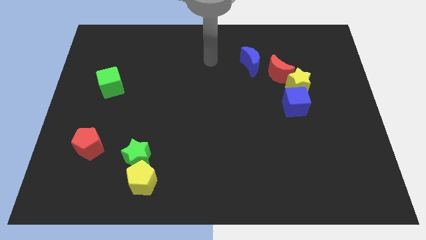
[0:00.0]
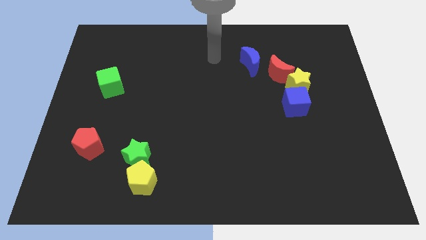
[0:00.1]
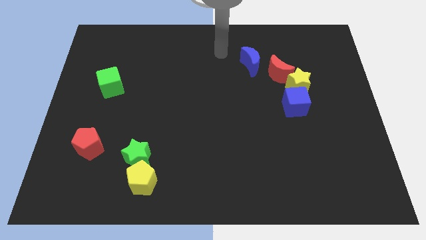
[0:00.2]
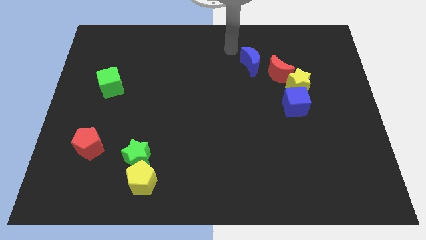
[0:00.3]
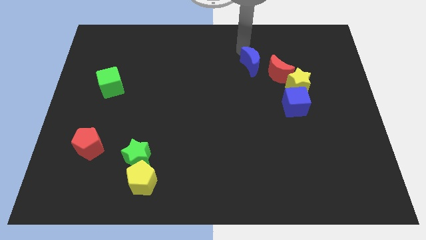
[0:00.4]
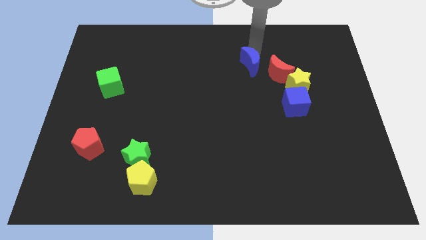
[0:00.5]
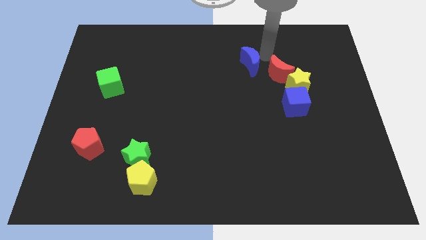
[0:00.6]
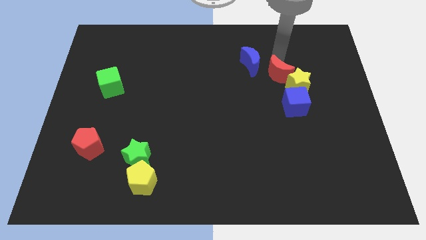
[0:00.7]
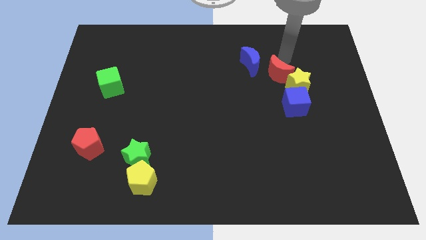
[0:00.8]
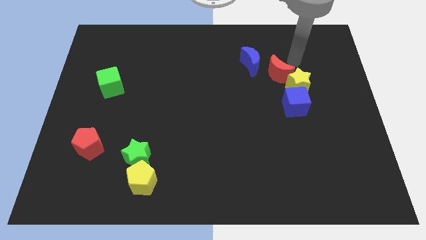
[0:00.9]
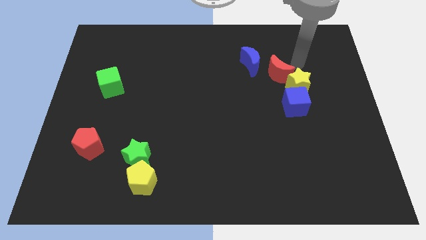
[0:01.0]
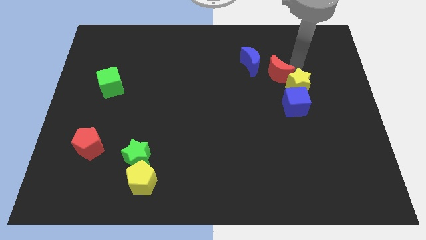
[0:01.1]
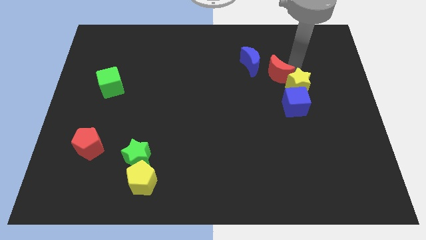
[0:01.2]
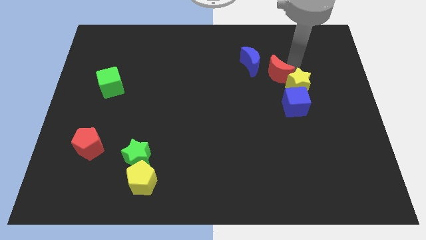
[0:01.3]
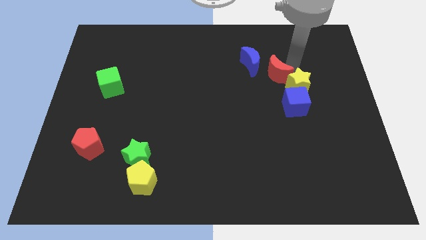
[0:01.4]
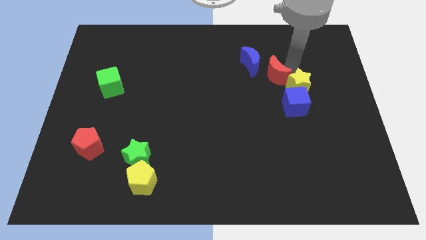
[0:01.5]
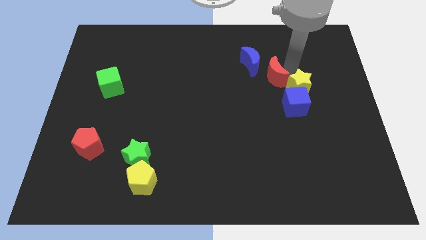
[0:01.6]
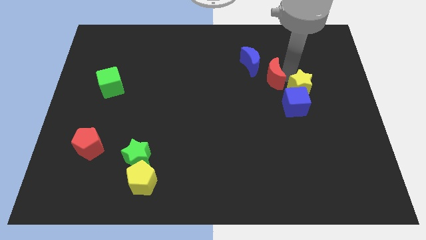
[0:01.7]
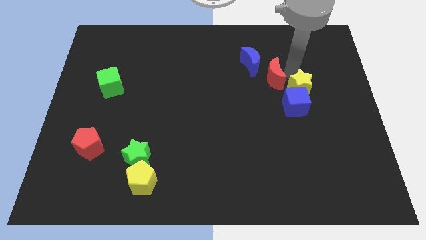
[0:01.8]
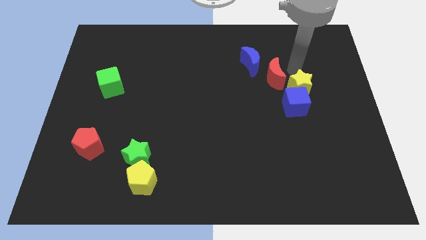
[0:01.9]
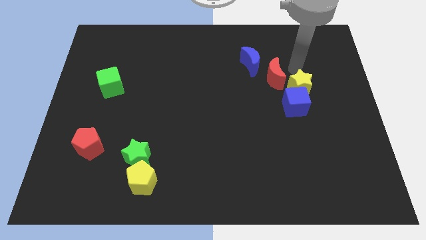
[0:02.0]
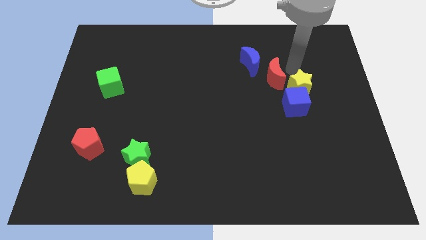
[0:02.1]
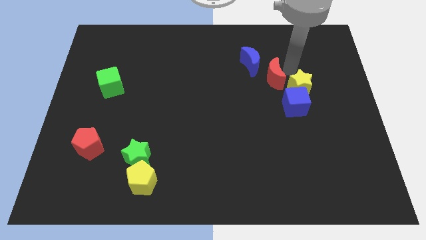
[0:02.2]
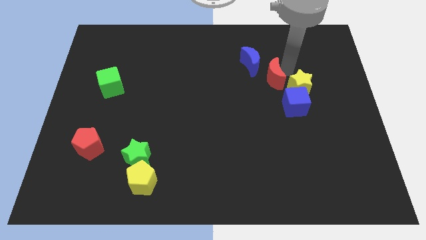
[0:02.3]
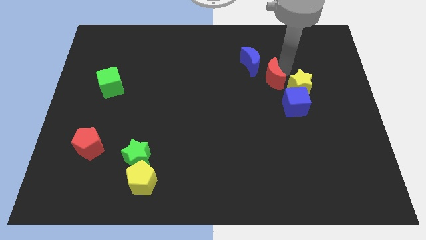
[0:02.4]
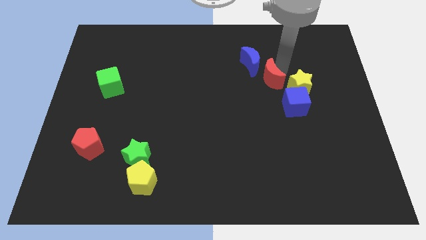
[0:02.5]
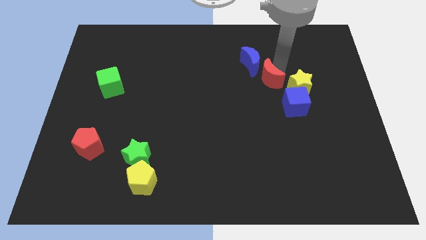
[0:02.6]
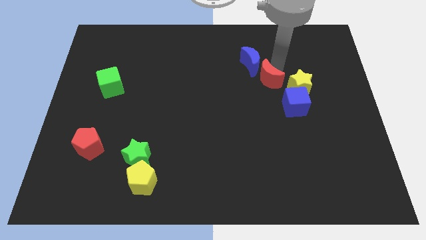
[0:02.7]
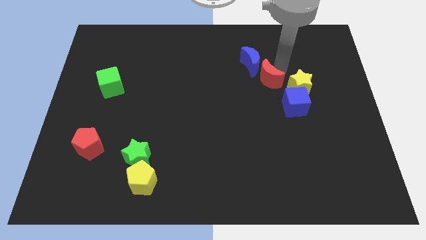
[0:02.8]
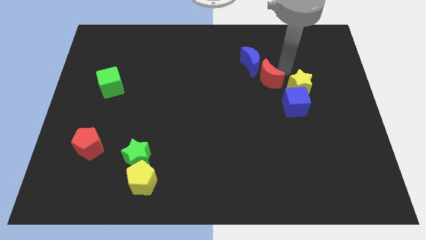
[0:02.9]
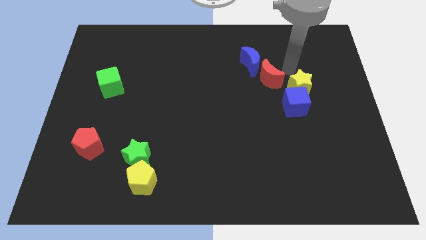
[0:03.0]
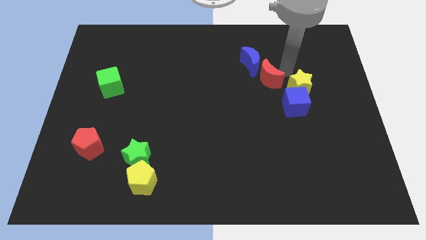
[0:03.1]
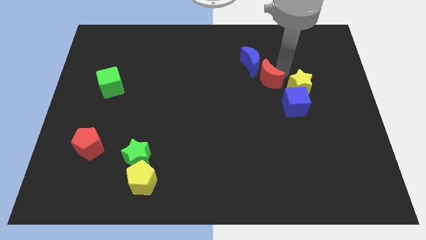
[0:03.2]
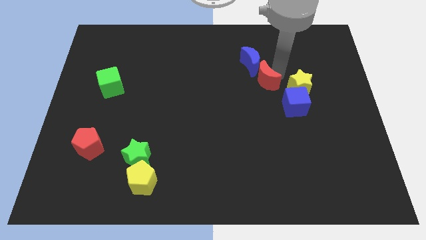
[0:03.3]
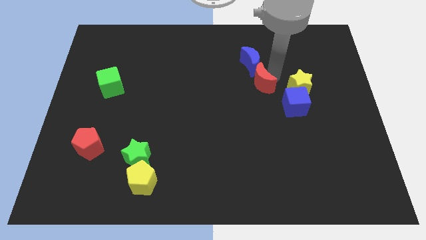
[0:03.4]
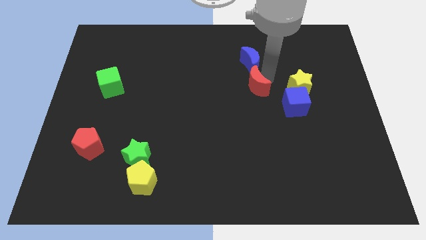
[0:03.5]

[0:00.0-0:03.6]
move the red moon slightly down and then to the left

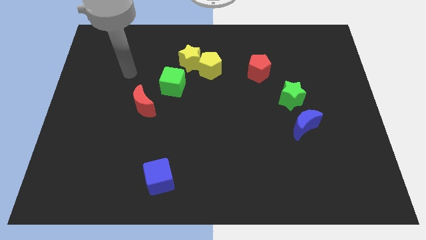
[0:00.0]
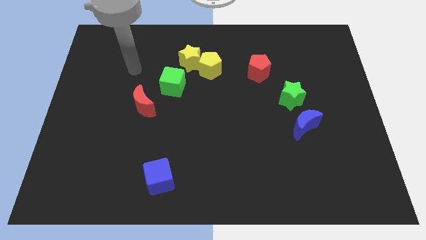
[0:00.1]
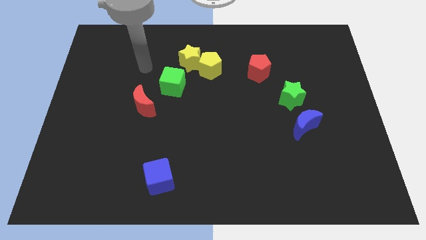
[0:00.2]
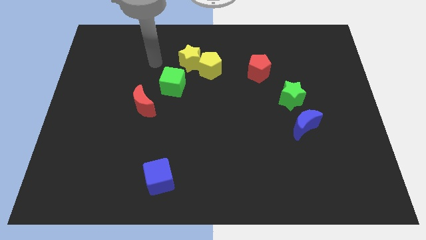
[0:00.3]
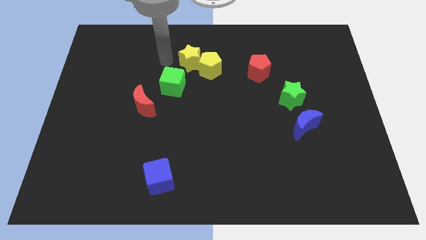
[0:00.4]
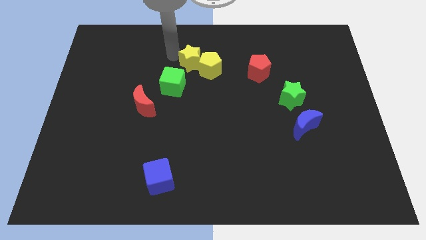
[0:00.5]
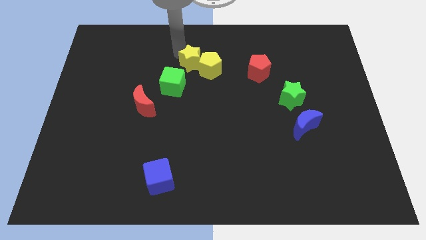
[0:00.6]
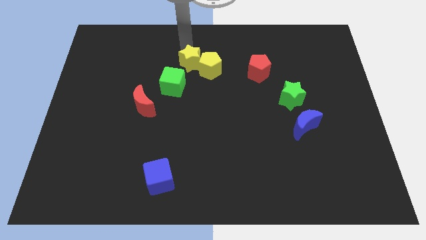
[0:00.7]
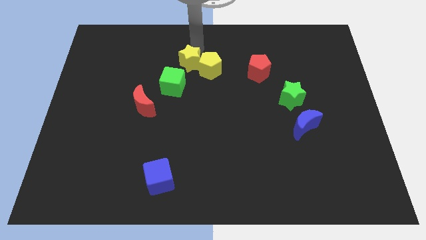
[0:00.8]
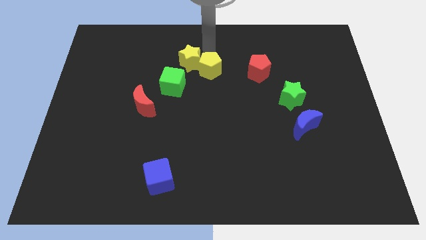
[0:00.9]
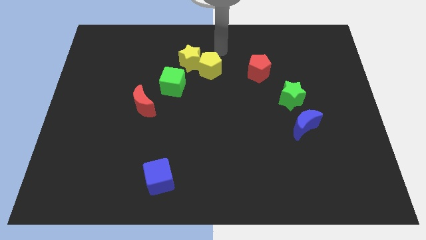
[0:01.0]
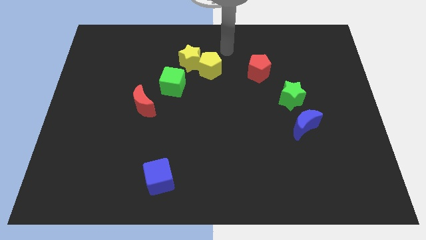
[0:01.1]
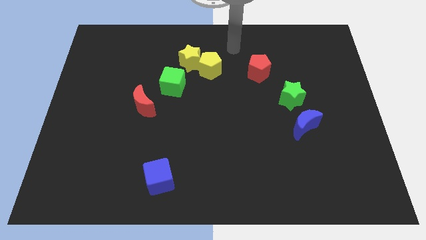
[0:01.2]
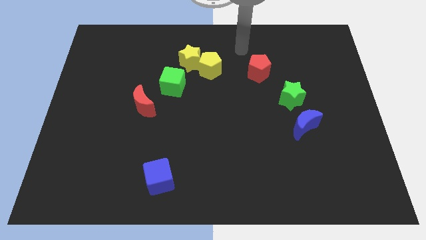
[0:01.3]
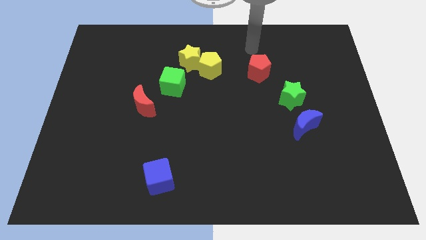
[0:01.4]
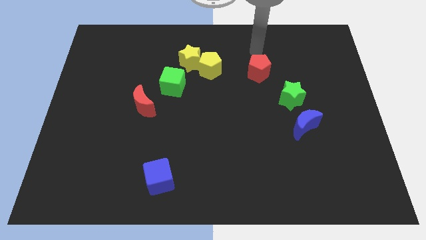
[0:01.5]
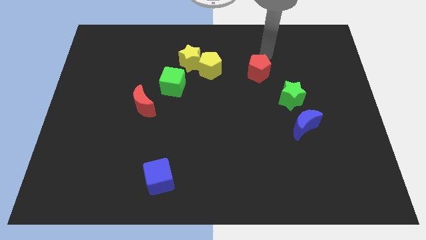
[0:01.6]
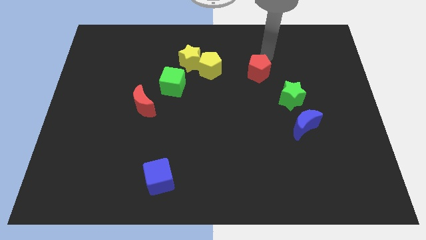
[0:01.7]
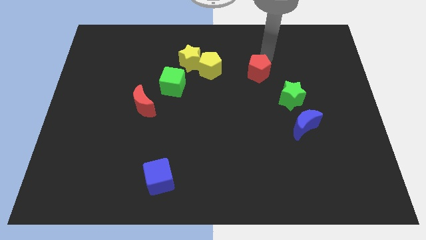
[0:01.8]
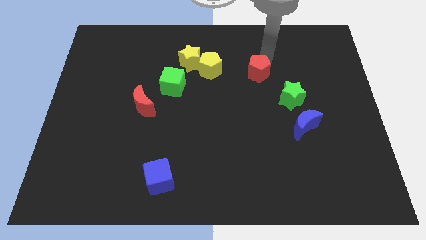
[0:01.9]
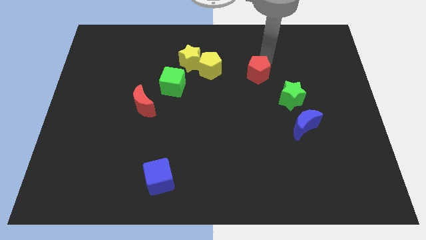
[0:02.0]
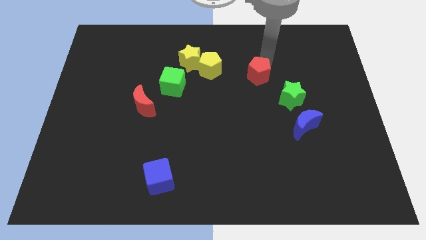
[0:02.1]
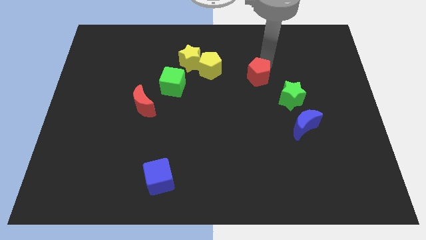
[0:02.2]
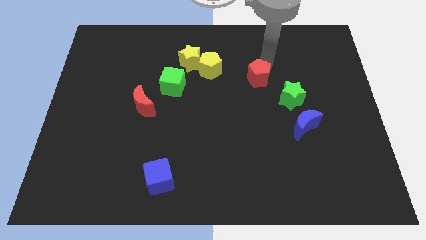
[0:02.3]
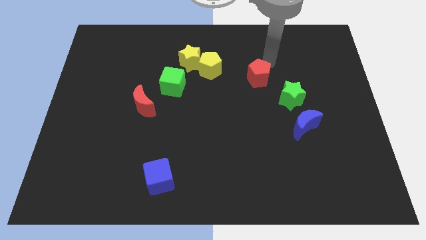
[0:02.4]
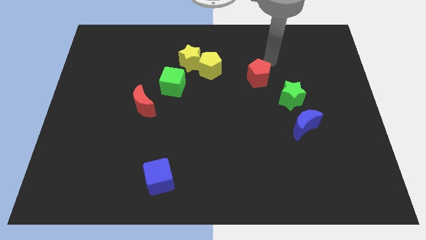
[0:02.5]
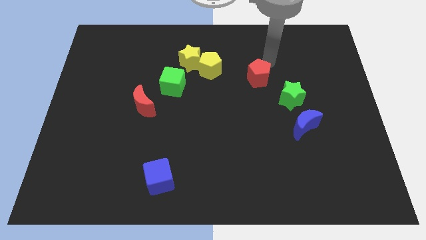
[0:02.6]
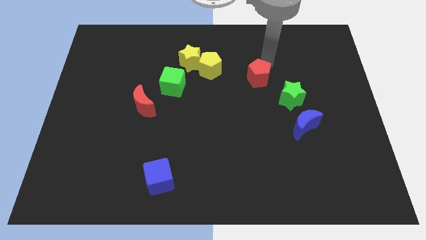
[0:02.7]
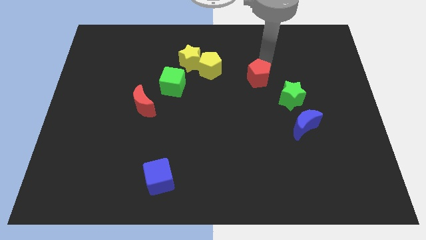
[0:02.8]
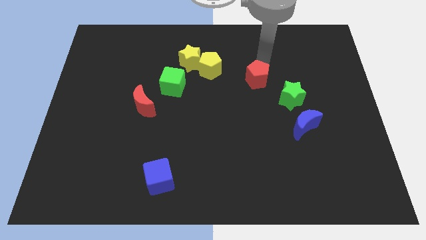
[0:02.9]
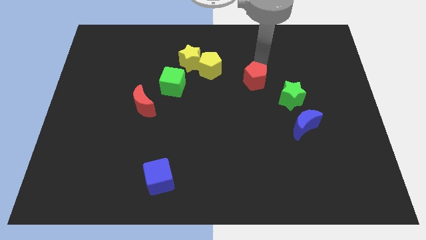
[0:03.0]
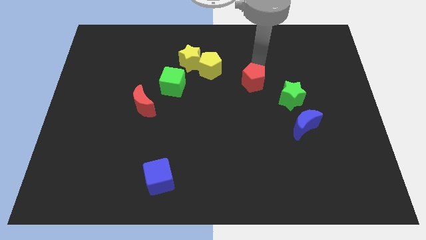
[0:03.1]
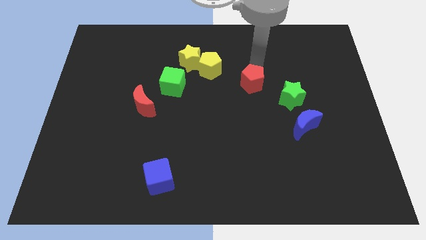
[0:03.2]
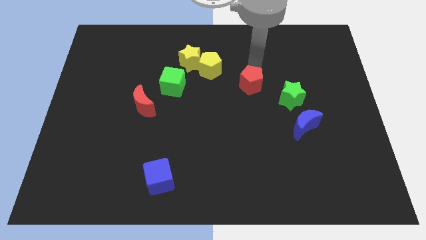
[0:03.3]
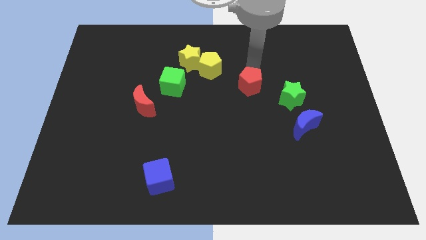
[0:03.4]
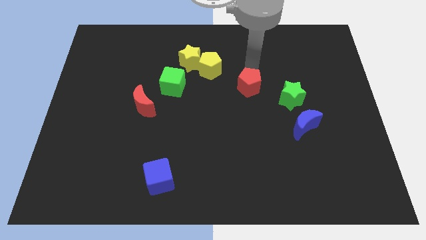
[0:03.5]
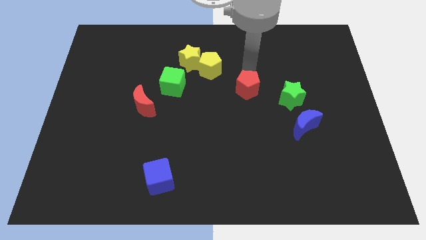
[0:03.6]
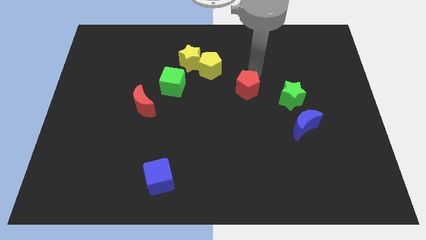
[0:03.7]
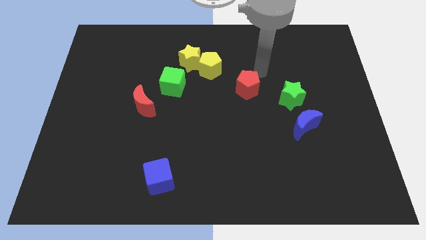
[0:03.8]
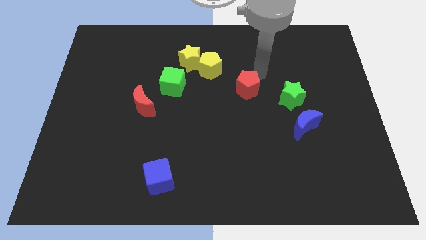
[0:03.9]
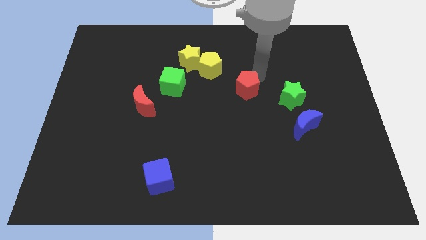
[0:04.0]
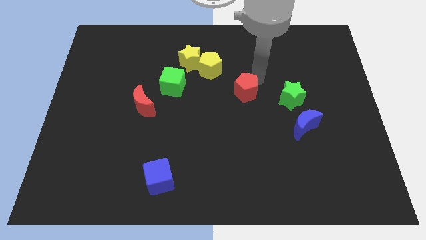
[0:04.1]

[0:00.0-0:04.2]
push the red pentagon a bit down and then left

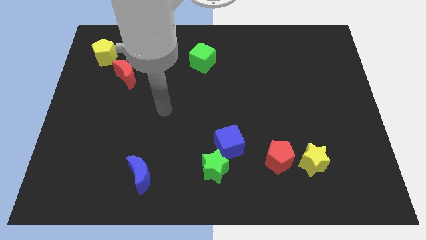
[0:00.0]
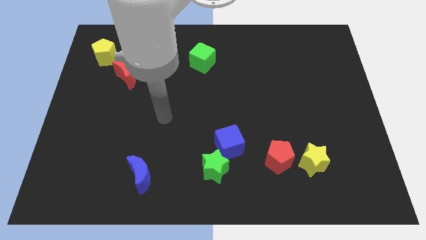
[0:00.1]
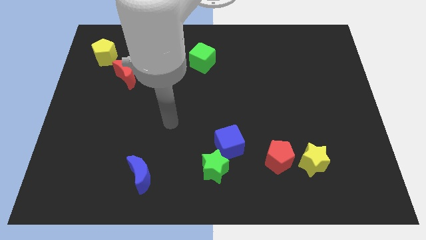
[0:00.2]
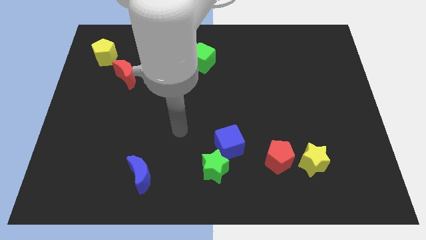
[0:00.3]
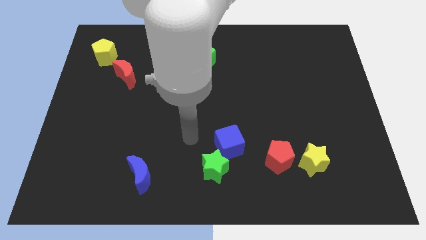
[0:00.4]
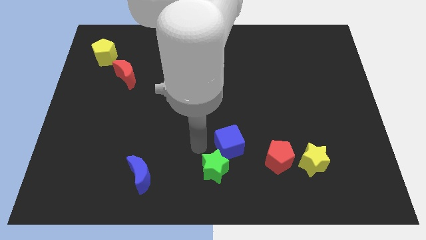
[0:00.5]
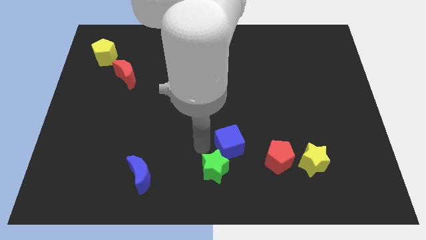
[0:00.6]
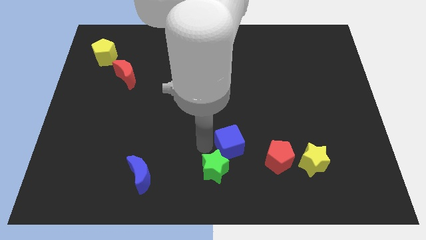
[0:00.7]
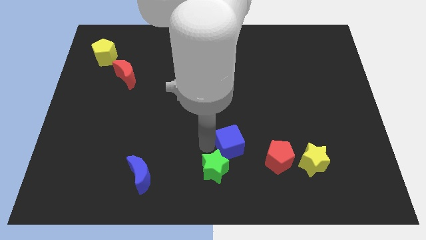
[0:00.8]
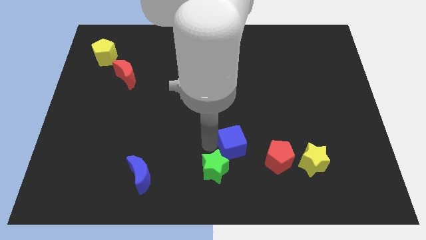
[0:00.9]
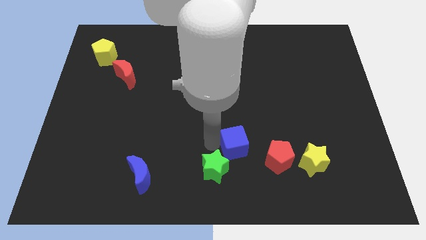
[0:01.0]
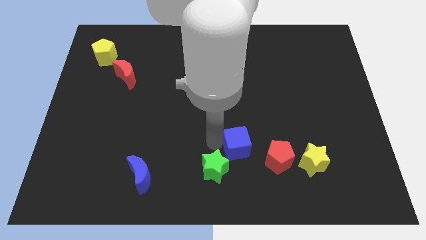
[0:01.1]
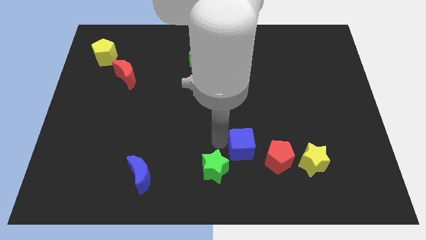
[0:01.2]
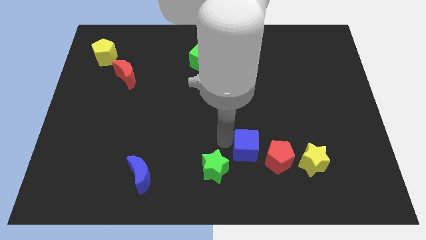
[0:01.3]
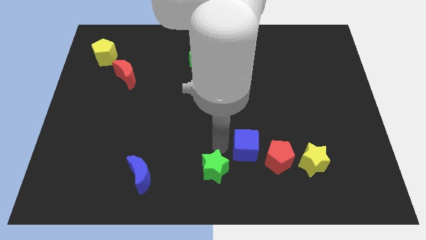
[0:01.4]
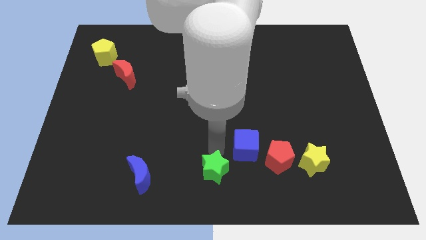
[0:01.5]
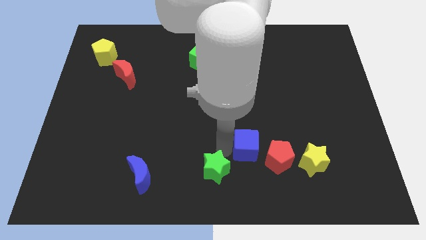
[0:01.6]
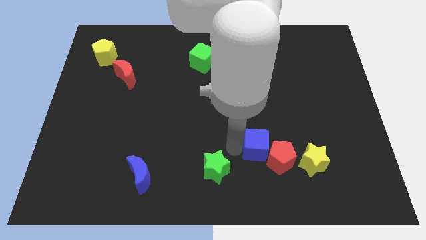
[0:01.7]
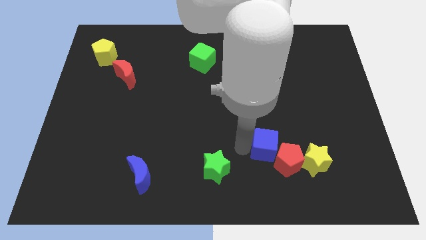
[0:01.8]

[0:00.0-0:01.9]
slide the blue cube a little to the right
